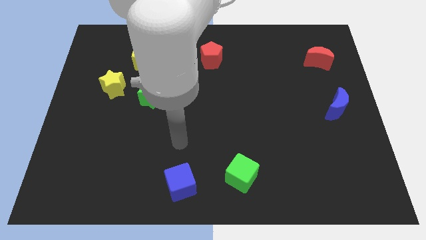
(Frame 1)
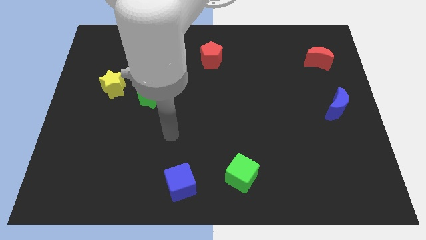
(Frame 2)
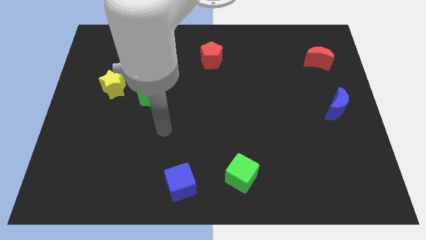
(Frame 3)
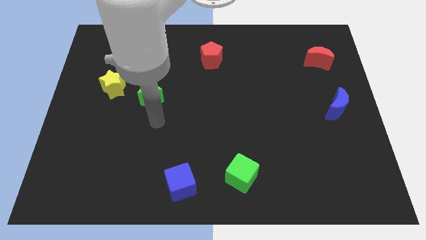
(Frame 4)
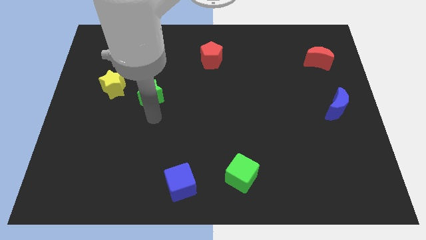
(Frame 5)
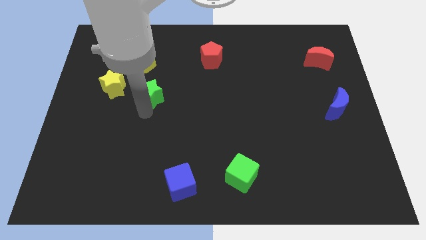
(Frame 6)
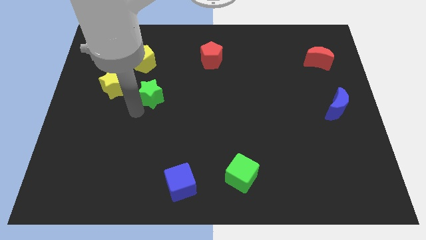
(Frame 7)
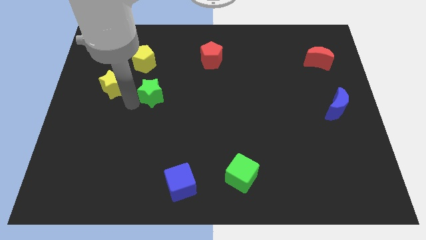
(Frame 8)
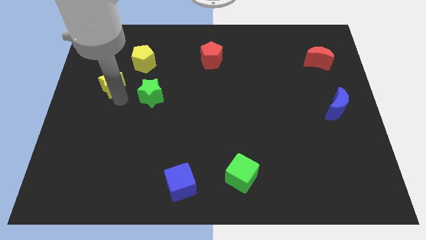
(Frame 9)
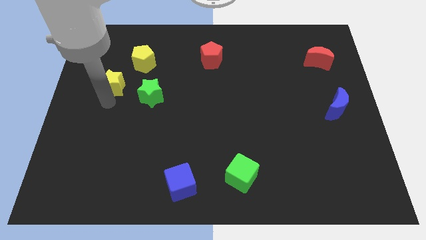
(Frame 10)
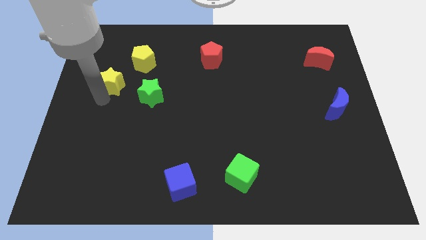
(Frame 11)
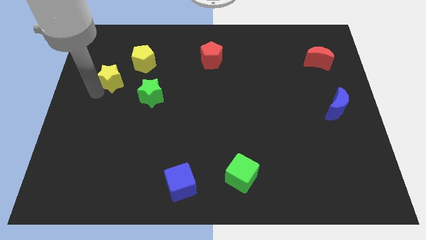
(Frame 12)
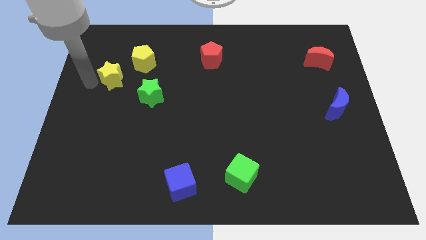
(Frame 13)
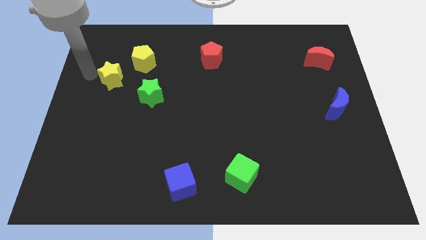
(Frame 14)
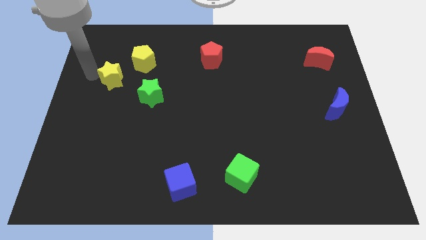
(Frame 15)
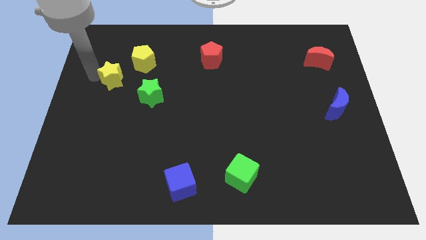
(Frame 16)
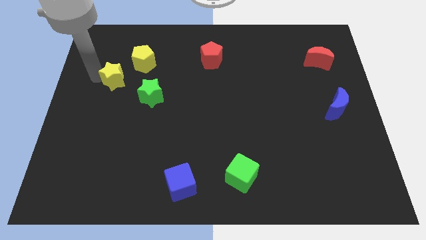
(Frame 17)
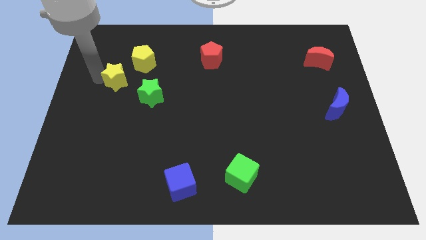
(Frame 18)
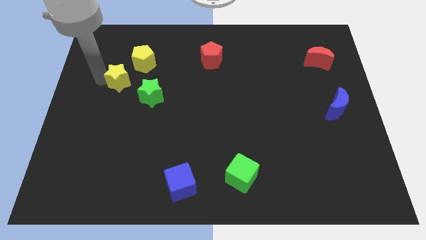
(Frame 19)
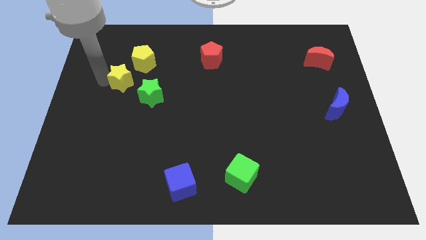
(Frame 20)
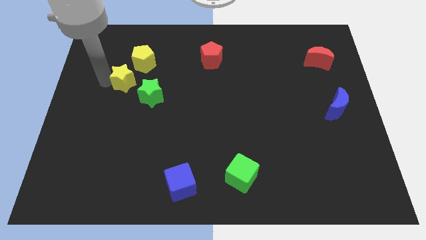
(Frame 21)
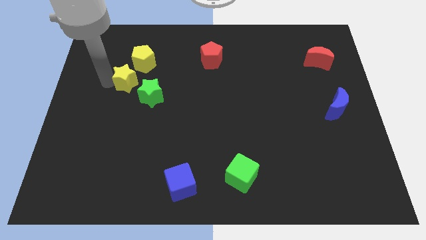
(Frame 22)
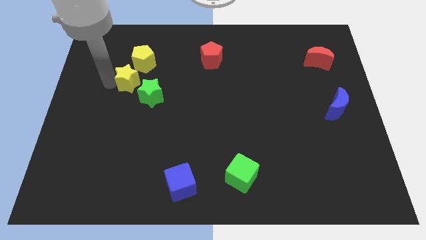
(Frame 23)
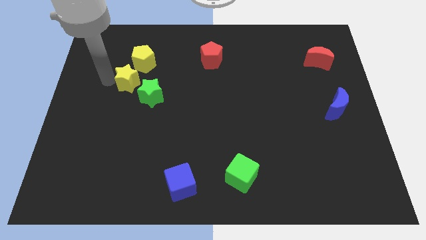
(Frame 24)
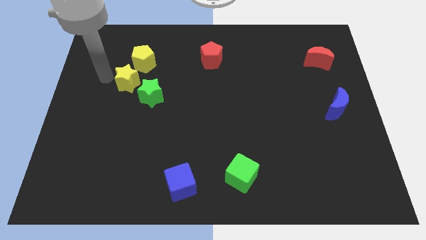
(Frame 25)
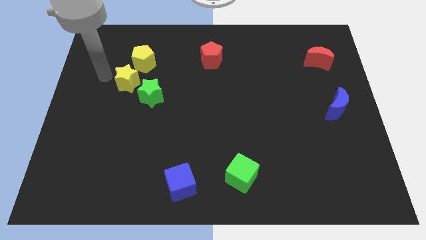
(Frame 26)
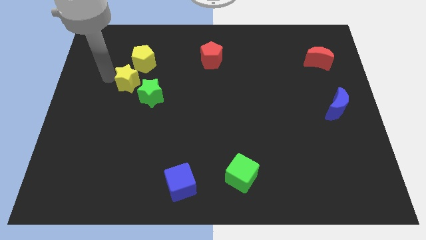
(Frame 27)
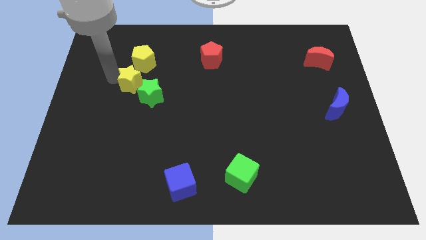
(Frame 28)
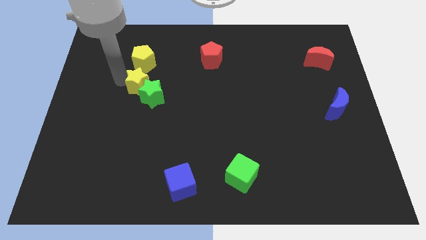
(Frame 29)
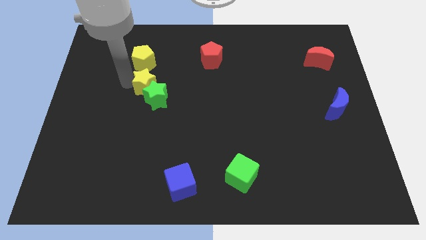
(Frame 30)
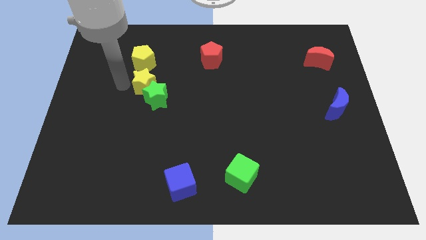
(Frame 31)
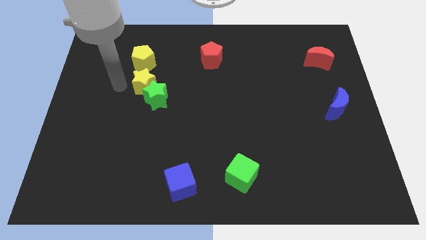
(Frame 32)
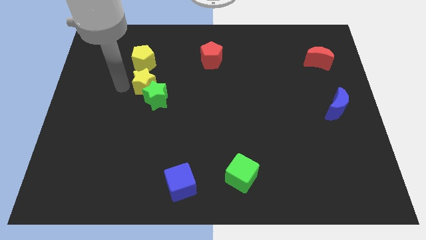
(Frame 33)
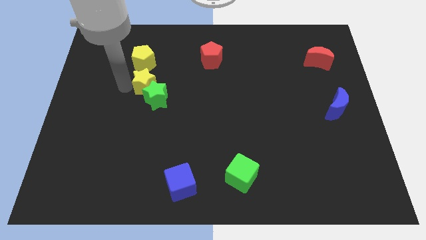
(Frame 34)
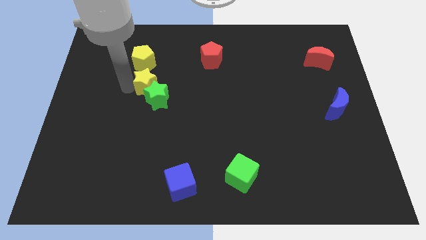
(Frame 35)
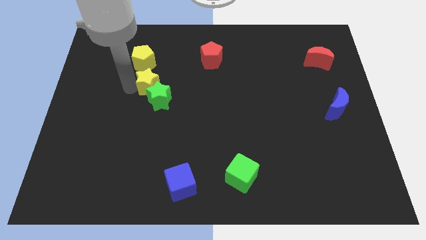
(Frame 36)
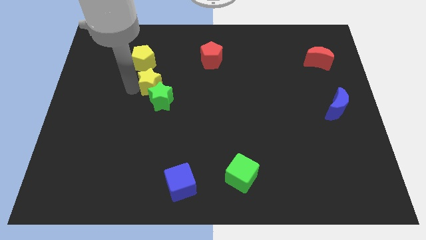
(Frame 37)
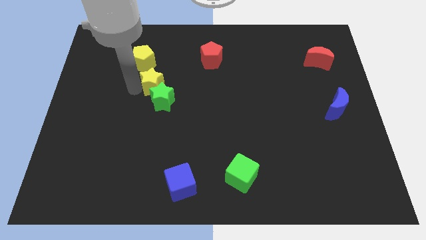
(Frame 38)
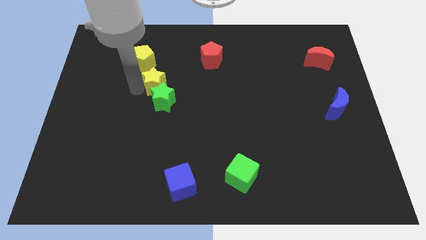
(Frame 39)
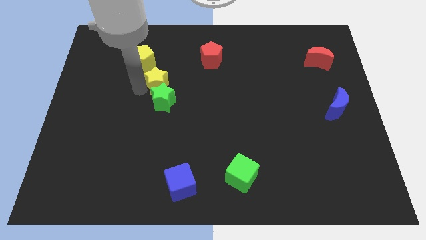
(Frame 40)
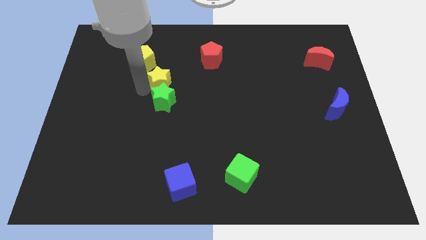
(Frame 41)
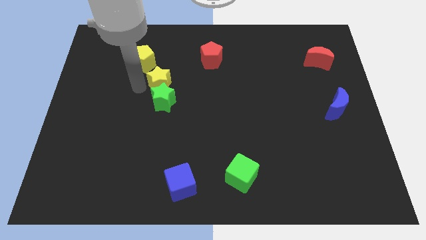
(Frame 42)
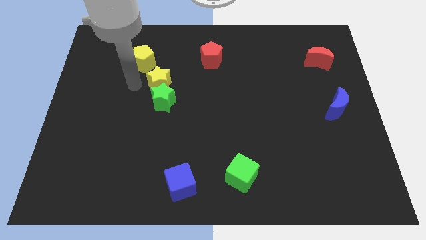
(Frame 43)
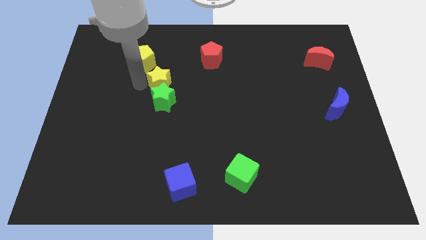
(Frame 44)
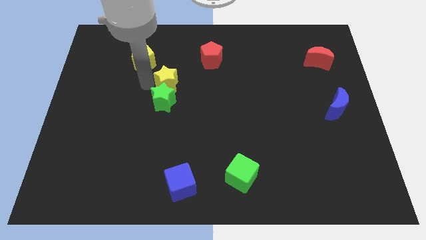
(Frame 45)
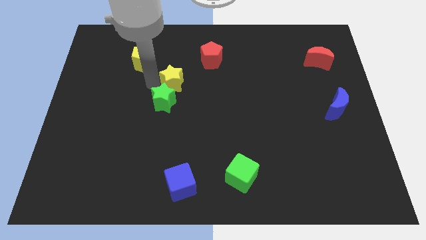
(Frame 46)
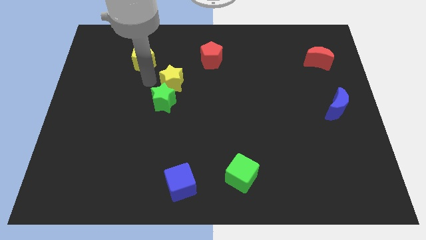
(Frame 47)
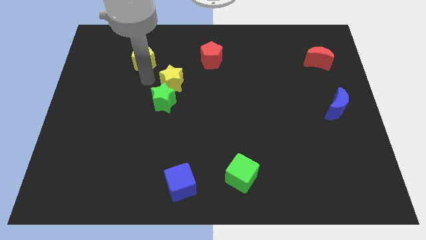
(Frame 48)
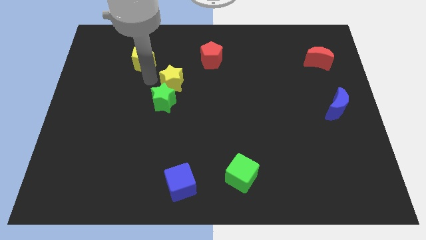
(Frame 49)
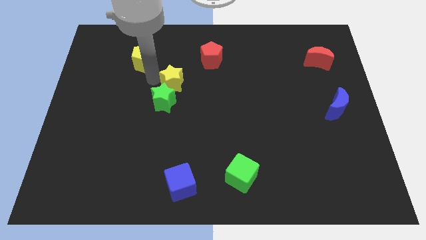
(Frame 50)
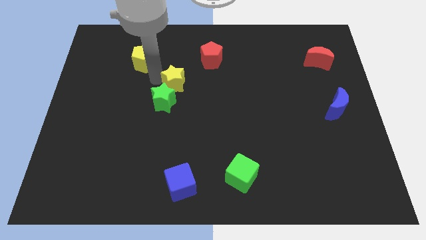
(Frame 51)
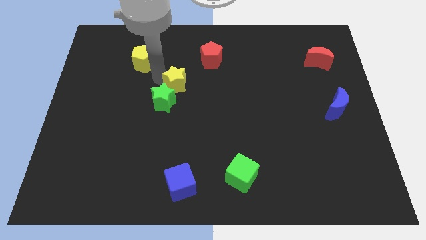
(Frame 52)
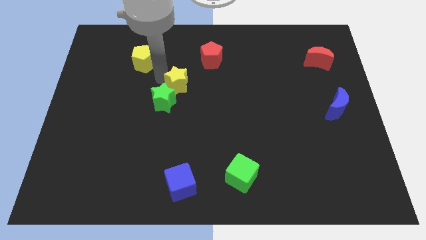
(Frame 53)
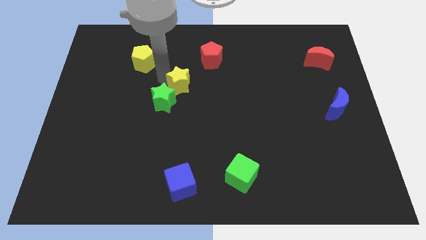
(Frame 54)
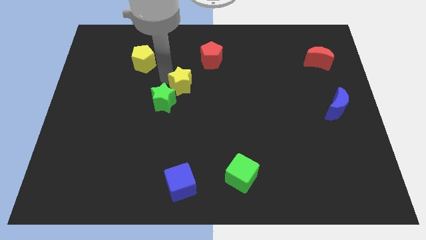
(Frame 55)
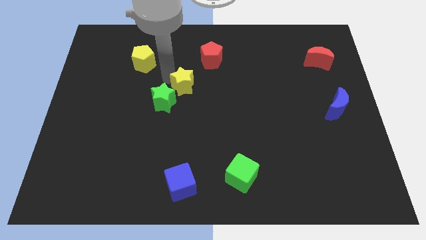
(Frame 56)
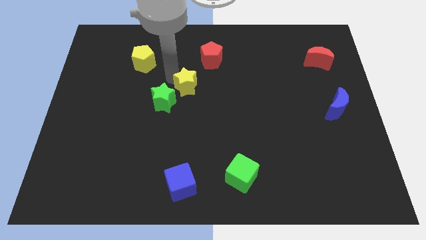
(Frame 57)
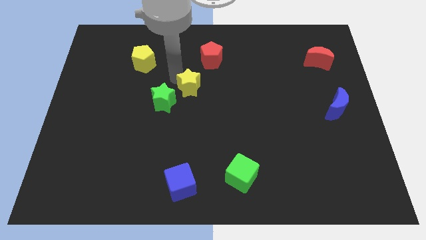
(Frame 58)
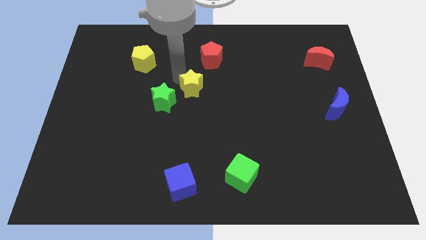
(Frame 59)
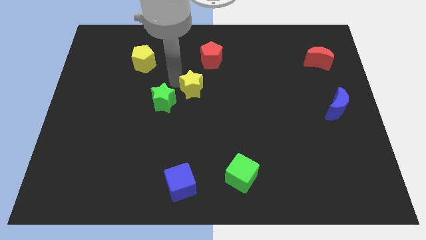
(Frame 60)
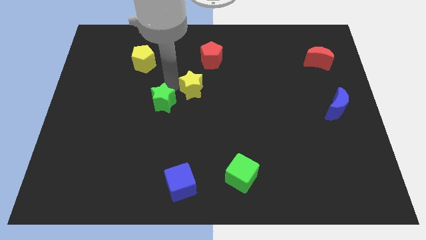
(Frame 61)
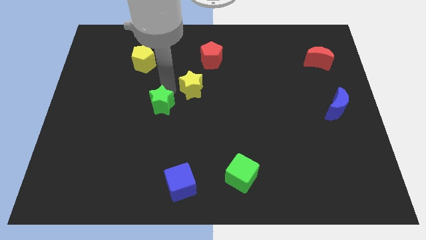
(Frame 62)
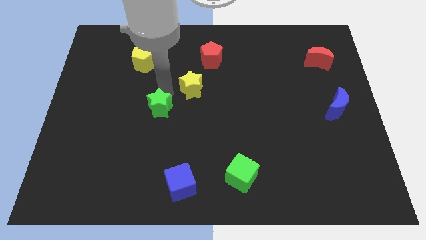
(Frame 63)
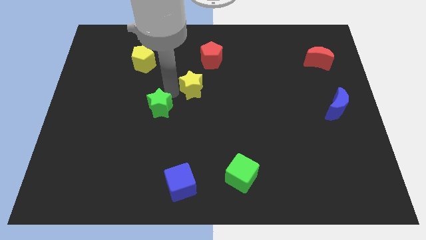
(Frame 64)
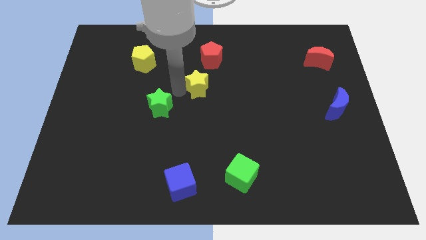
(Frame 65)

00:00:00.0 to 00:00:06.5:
push the yellow star to the right

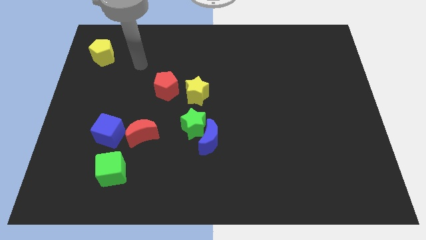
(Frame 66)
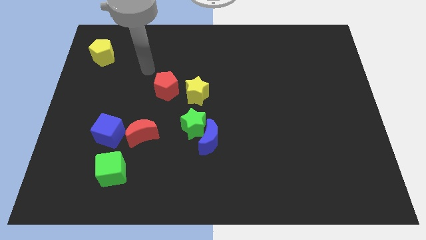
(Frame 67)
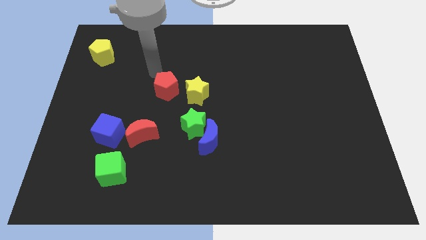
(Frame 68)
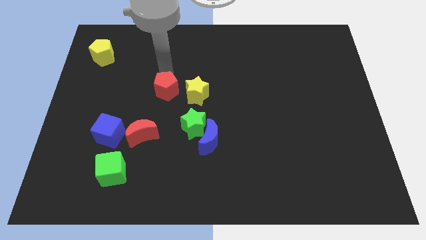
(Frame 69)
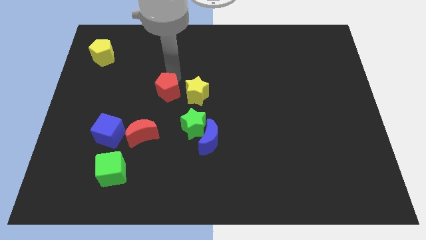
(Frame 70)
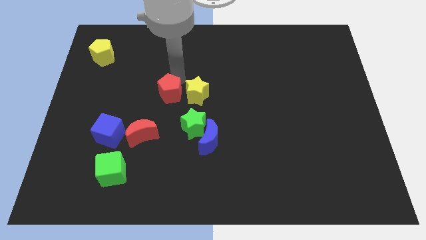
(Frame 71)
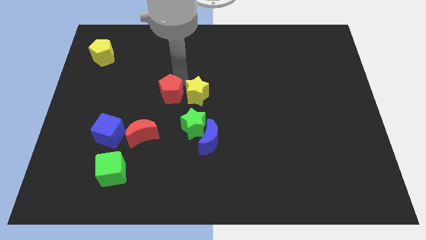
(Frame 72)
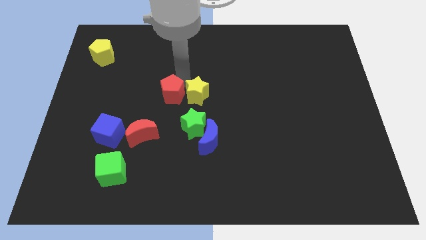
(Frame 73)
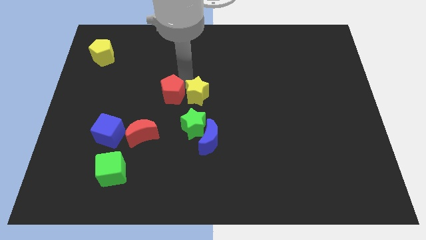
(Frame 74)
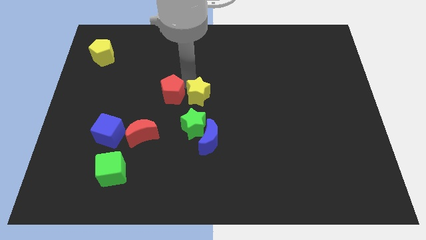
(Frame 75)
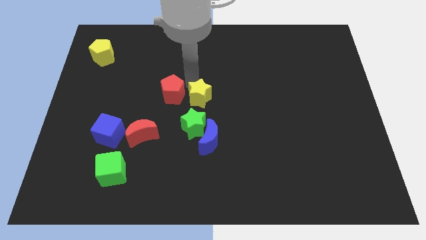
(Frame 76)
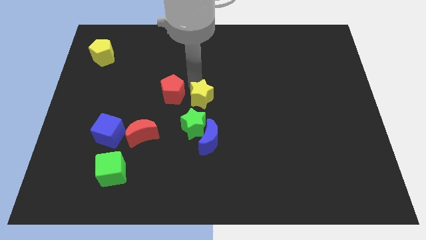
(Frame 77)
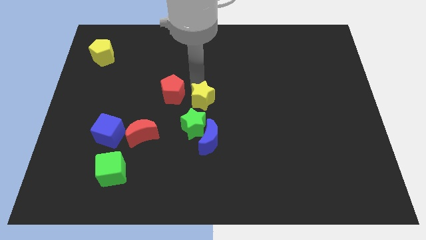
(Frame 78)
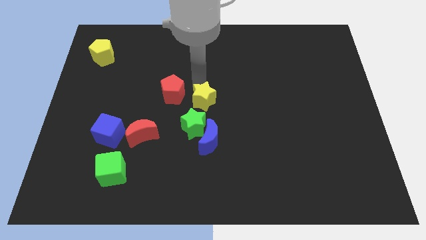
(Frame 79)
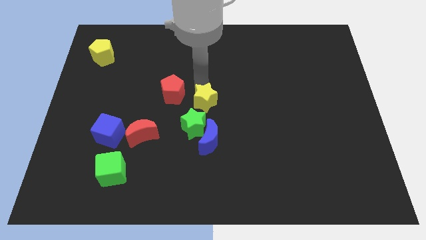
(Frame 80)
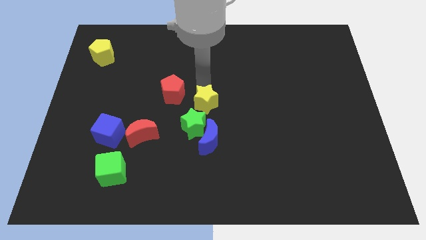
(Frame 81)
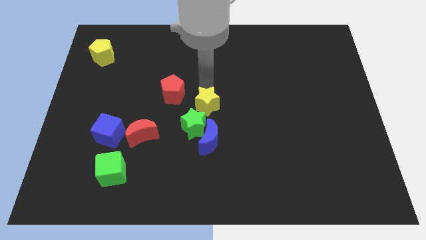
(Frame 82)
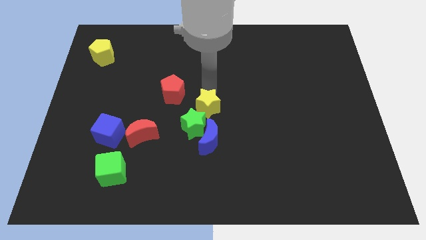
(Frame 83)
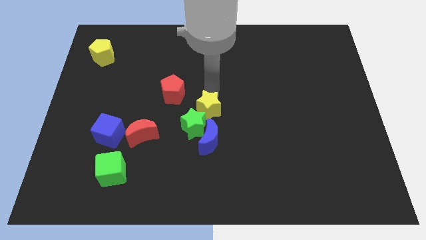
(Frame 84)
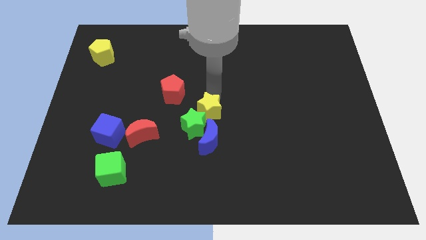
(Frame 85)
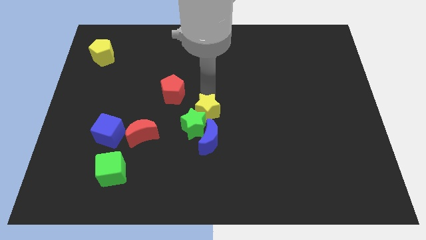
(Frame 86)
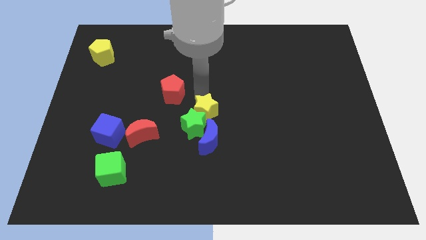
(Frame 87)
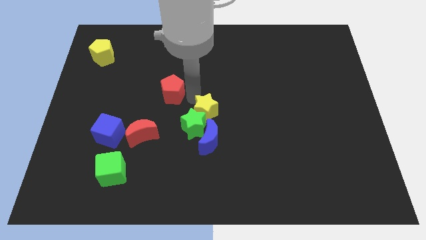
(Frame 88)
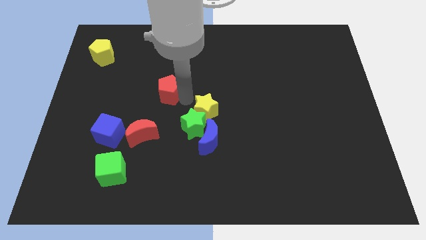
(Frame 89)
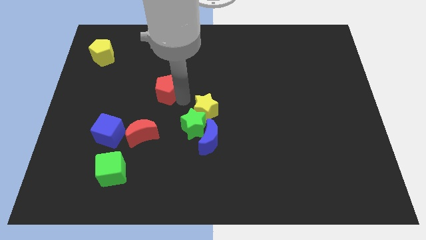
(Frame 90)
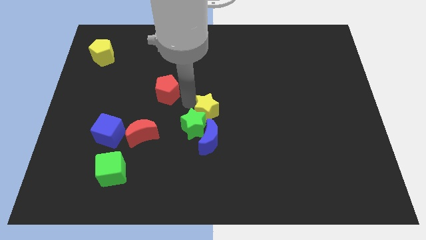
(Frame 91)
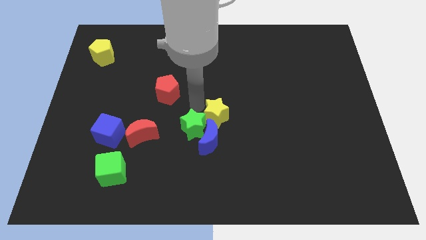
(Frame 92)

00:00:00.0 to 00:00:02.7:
slide the yellow star down and to the right a little
